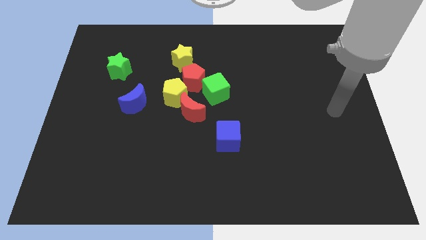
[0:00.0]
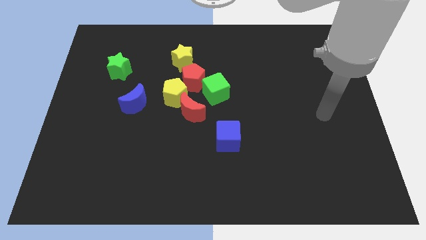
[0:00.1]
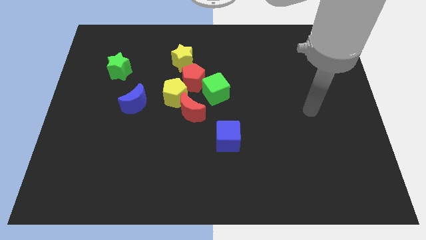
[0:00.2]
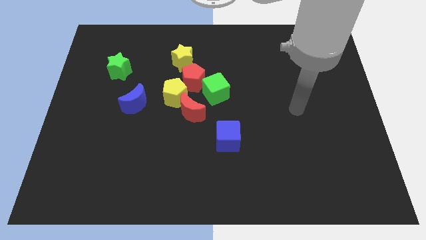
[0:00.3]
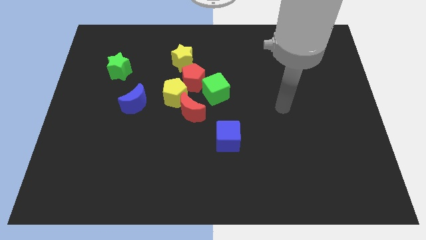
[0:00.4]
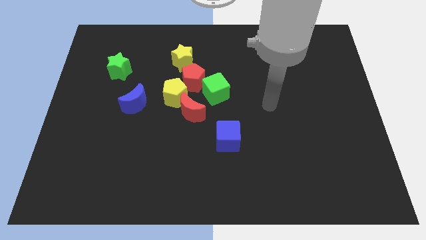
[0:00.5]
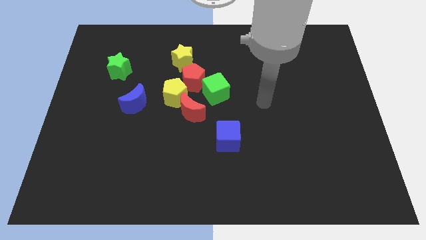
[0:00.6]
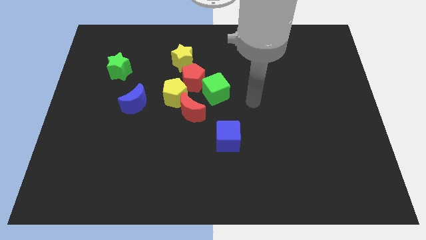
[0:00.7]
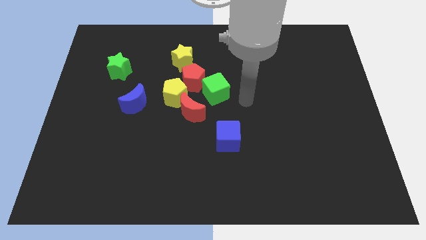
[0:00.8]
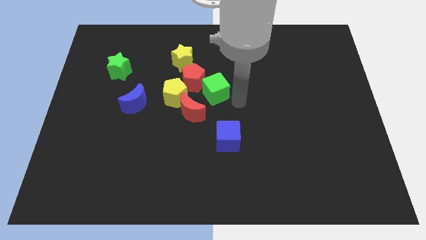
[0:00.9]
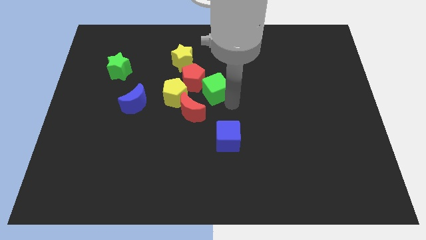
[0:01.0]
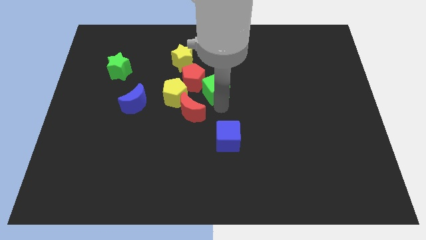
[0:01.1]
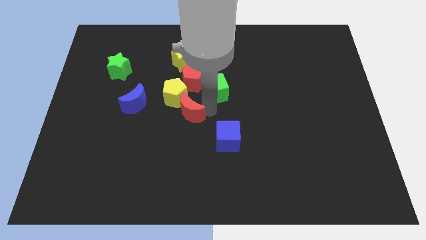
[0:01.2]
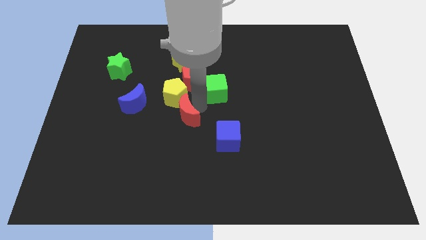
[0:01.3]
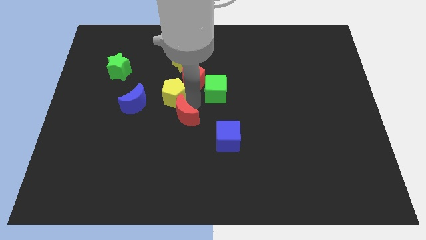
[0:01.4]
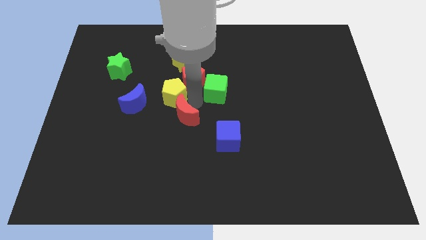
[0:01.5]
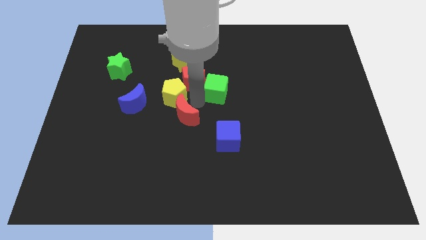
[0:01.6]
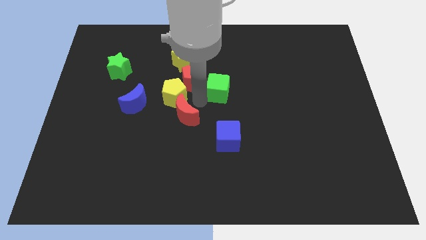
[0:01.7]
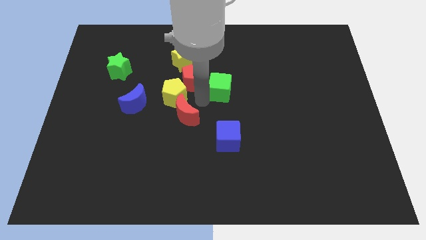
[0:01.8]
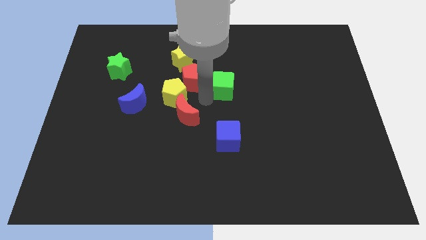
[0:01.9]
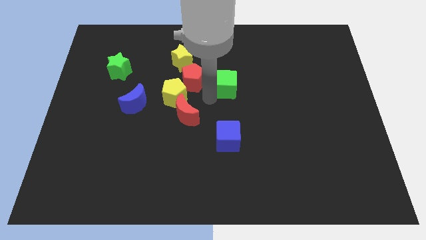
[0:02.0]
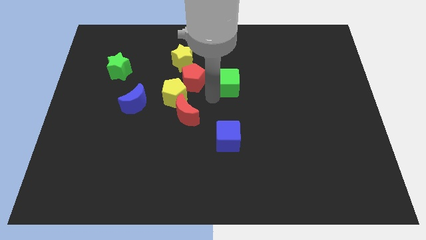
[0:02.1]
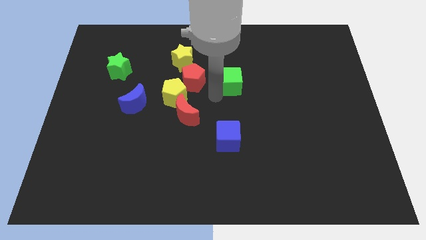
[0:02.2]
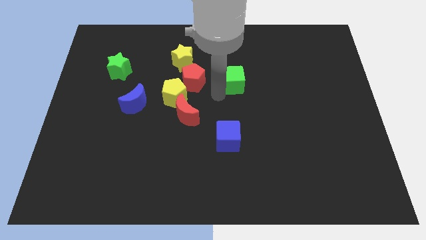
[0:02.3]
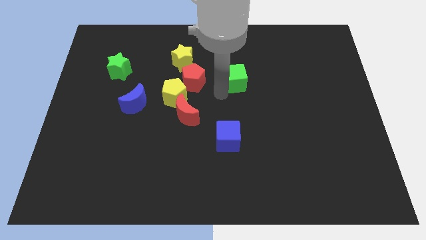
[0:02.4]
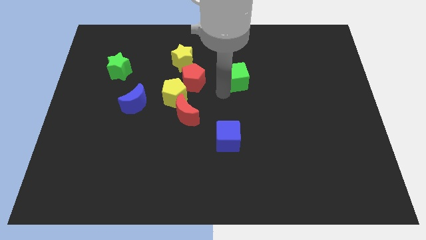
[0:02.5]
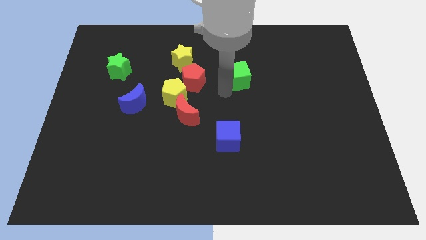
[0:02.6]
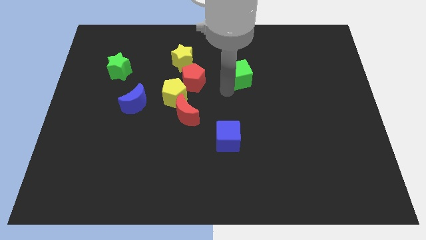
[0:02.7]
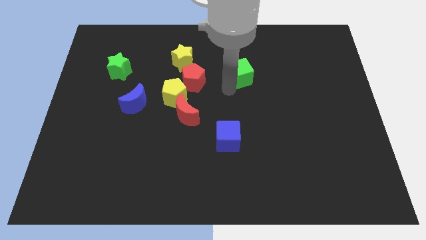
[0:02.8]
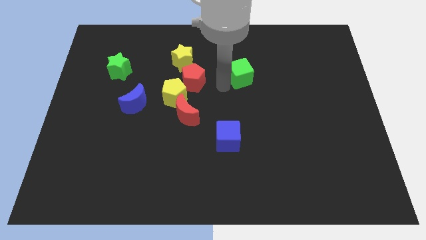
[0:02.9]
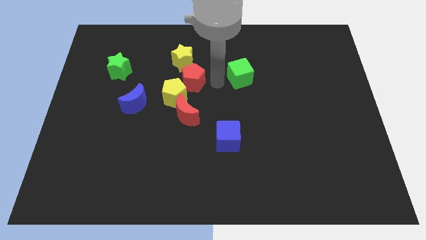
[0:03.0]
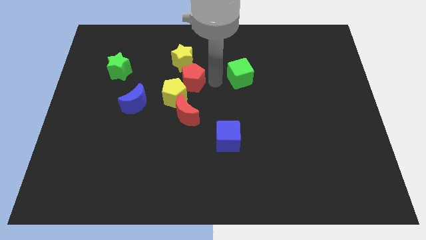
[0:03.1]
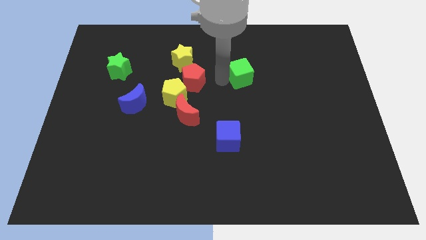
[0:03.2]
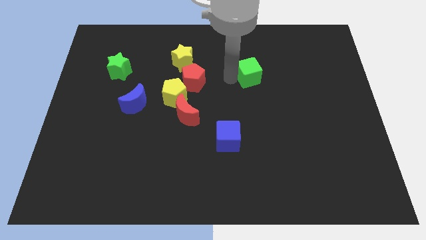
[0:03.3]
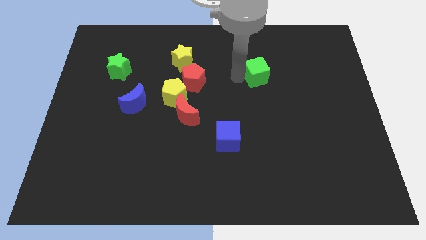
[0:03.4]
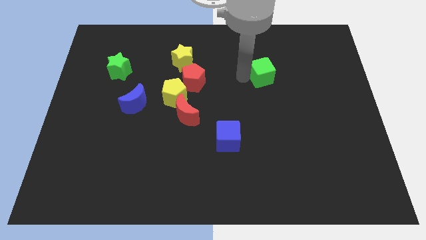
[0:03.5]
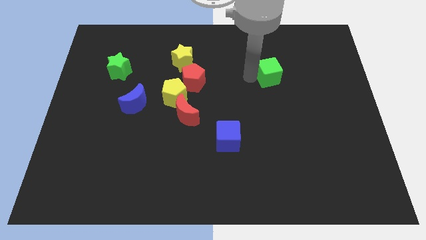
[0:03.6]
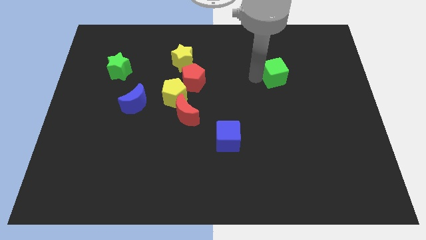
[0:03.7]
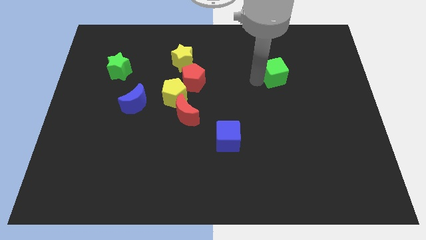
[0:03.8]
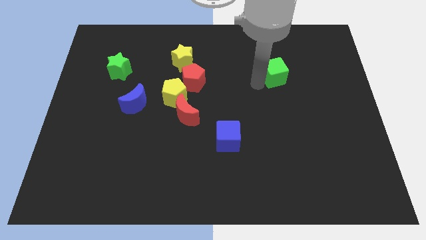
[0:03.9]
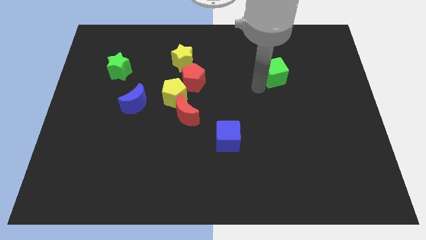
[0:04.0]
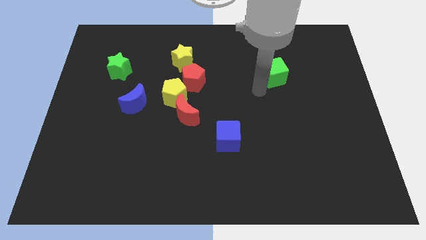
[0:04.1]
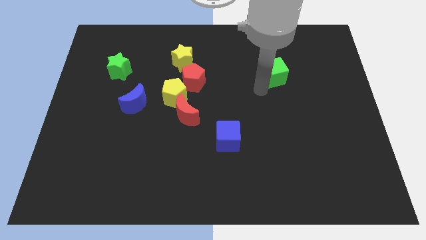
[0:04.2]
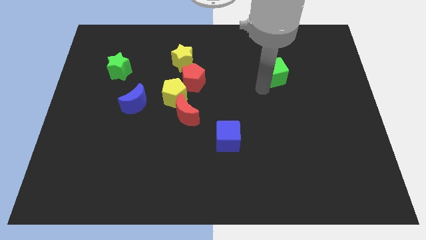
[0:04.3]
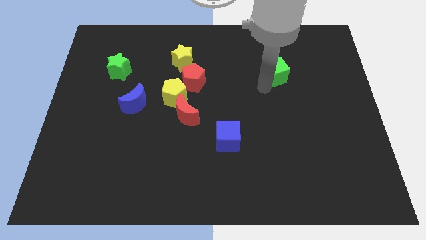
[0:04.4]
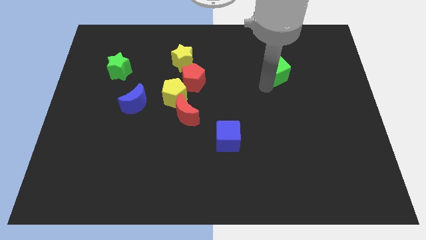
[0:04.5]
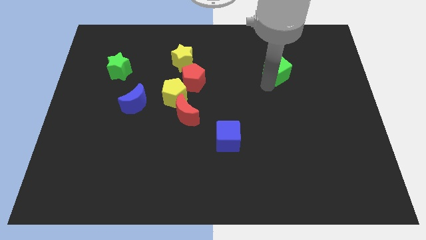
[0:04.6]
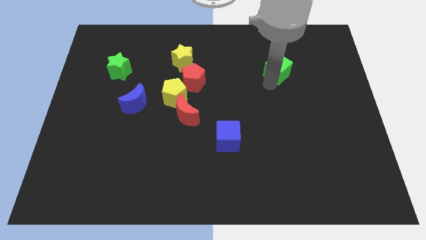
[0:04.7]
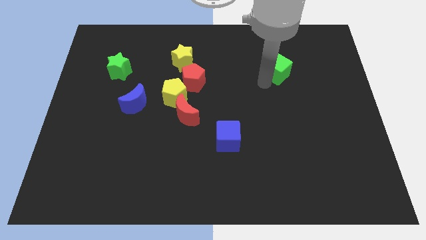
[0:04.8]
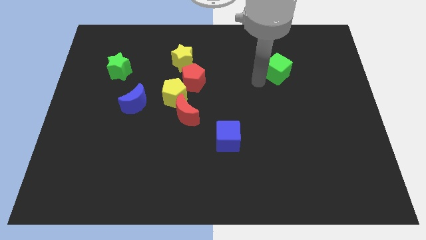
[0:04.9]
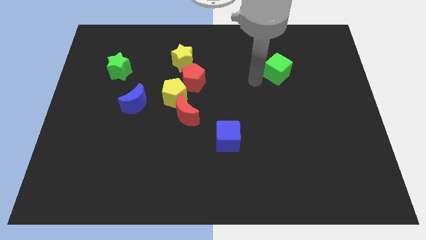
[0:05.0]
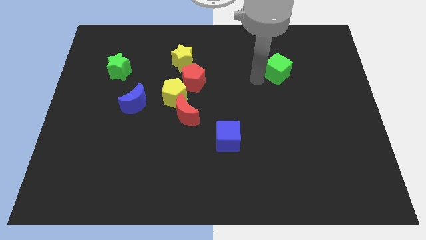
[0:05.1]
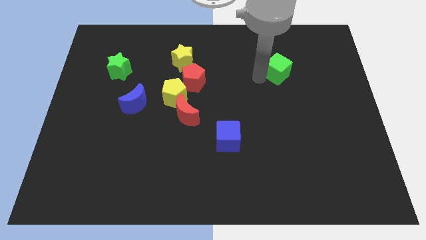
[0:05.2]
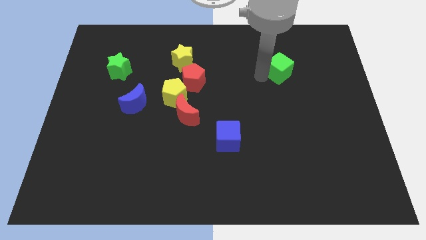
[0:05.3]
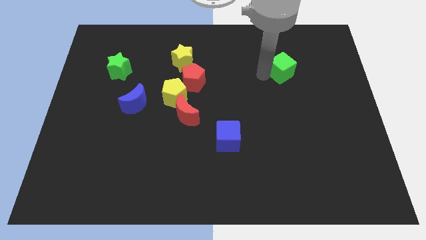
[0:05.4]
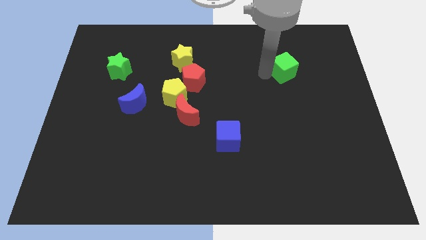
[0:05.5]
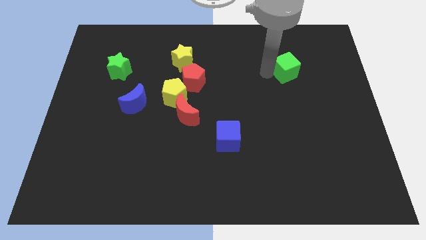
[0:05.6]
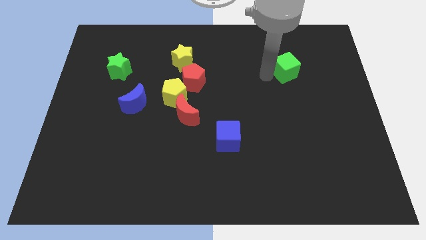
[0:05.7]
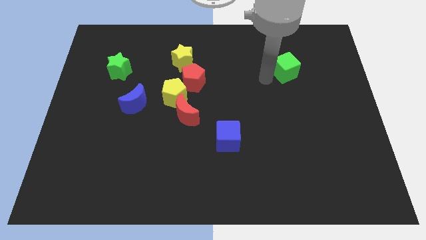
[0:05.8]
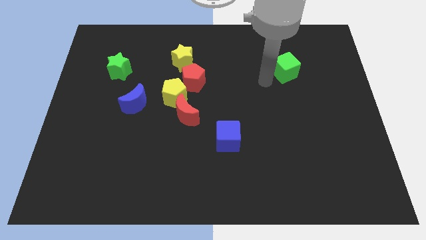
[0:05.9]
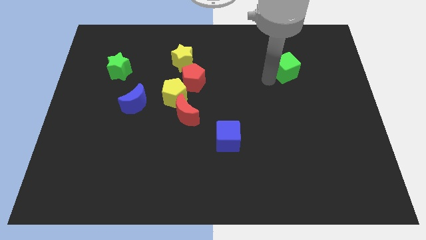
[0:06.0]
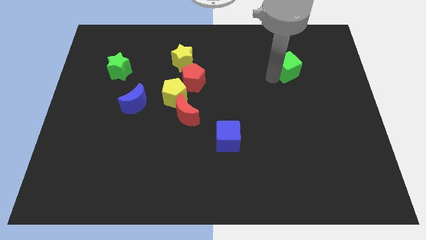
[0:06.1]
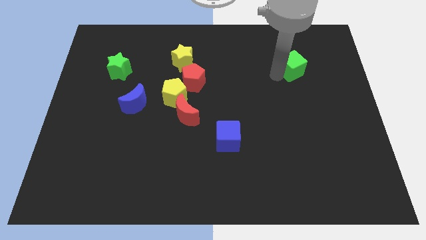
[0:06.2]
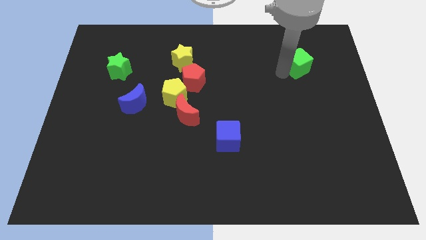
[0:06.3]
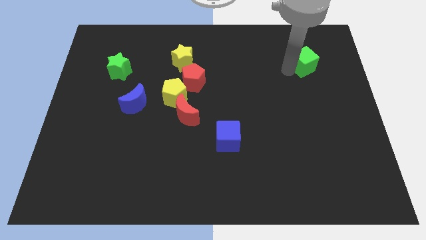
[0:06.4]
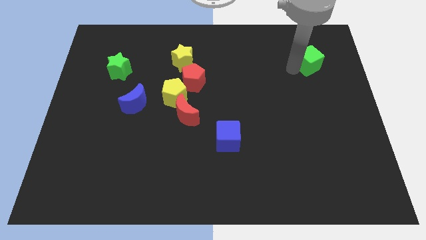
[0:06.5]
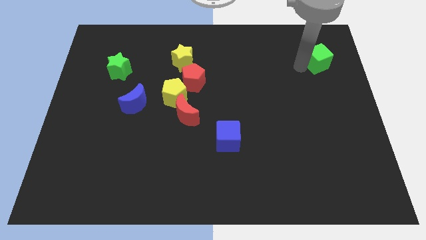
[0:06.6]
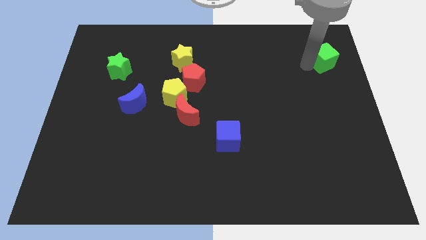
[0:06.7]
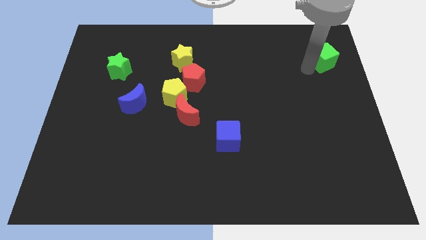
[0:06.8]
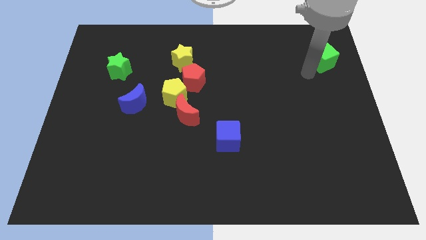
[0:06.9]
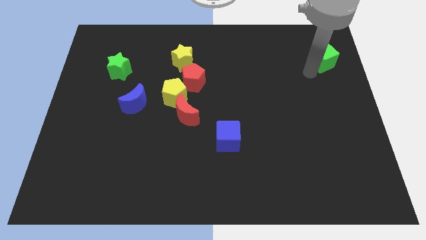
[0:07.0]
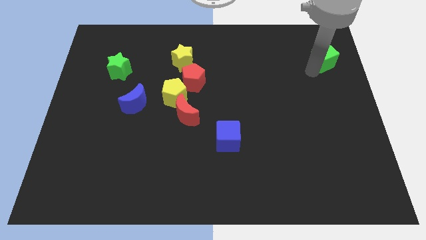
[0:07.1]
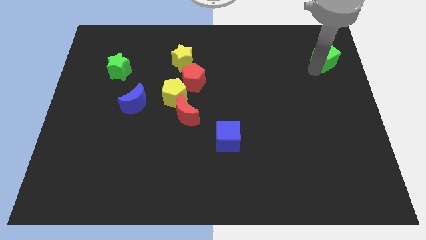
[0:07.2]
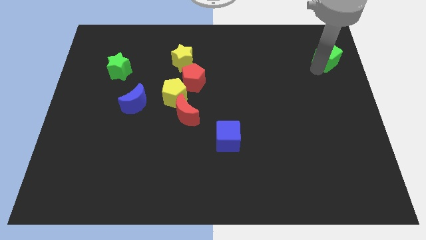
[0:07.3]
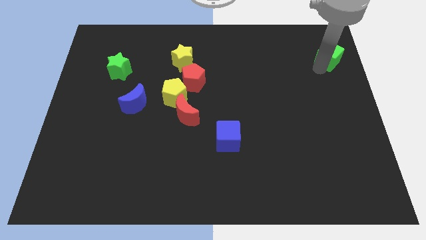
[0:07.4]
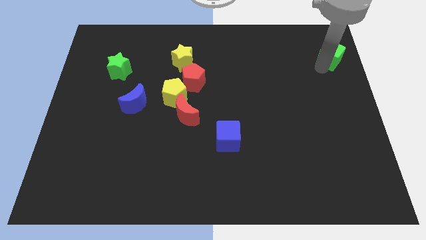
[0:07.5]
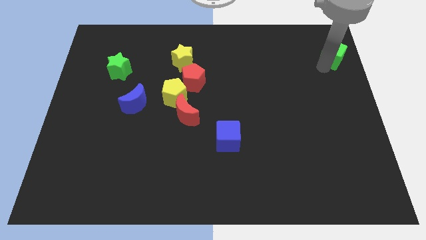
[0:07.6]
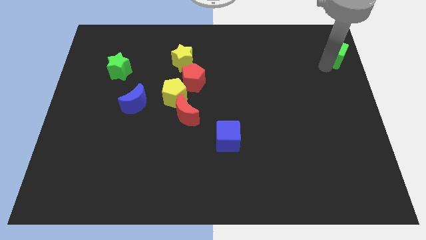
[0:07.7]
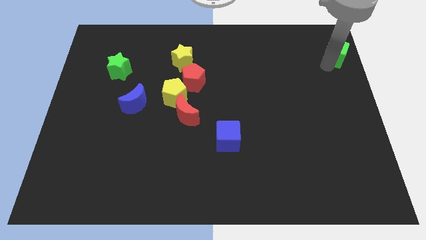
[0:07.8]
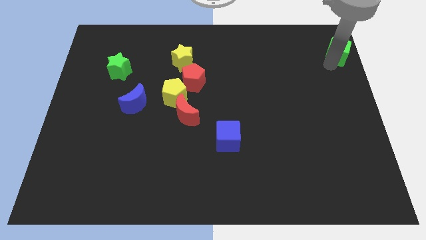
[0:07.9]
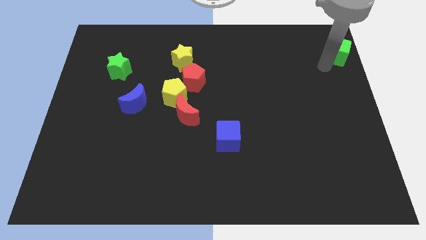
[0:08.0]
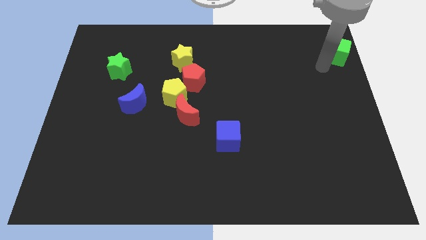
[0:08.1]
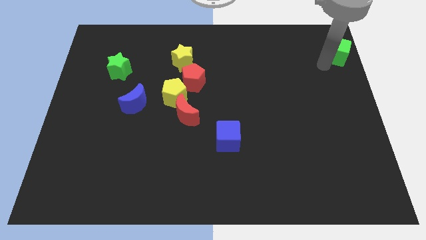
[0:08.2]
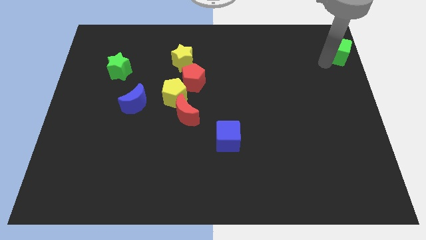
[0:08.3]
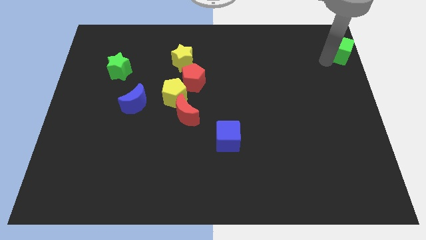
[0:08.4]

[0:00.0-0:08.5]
slide the green cube to the top right corner
